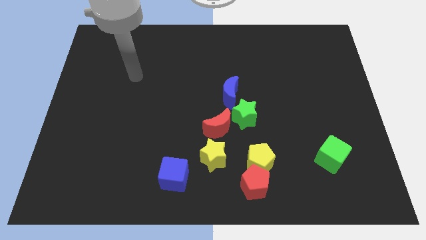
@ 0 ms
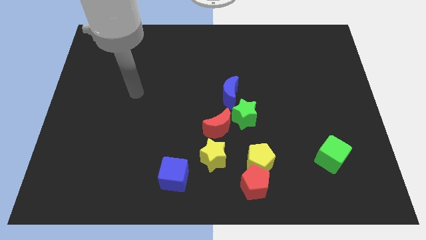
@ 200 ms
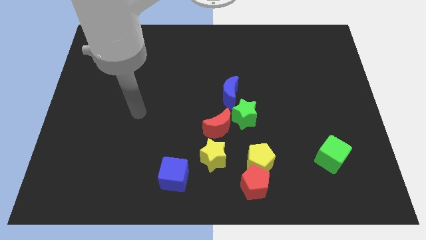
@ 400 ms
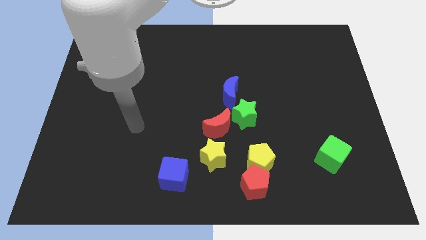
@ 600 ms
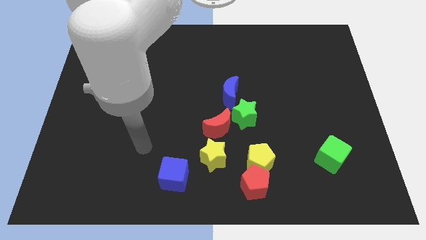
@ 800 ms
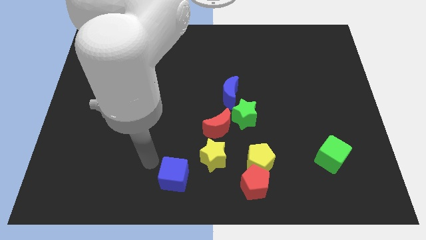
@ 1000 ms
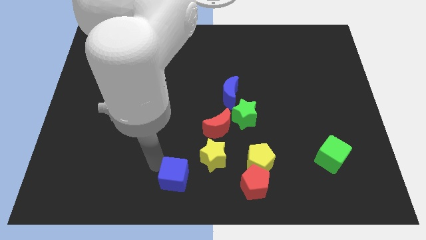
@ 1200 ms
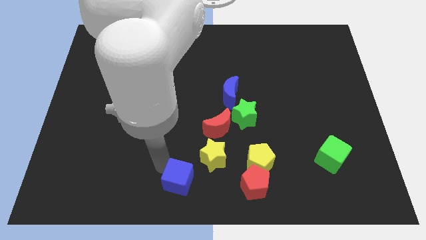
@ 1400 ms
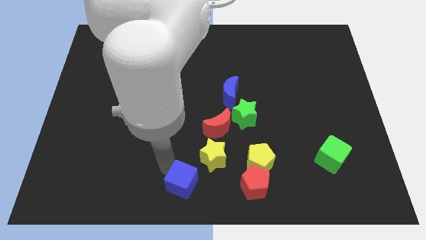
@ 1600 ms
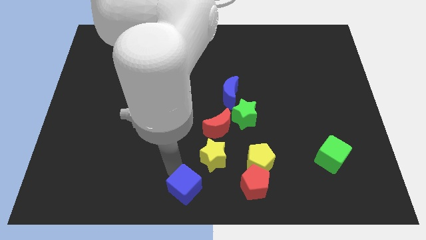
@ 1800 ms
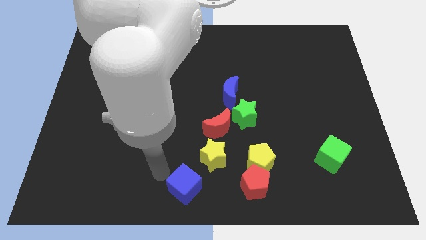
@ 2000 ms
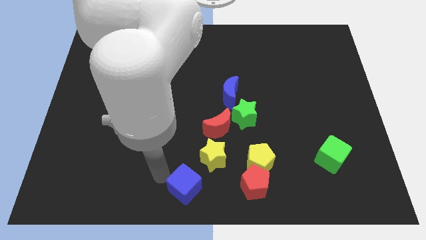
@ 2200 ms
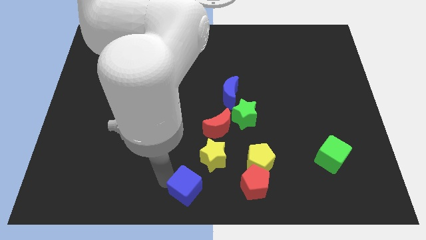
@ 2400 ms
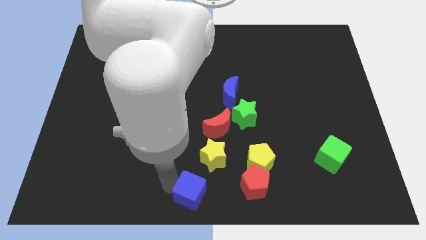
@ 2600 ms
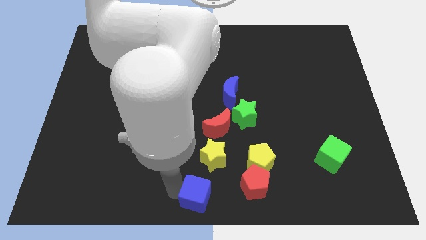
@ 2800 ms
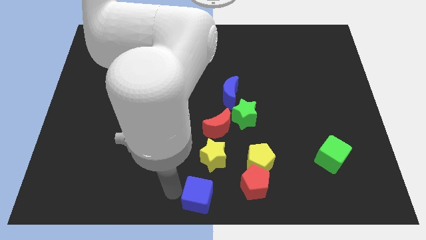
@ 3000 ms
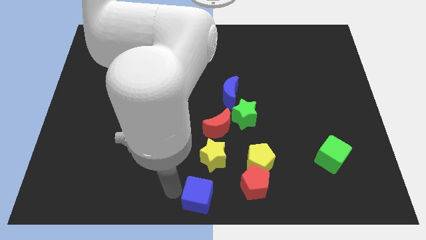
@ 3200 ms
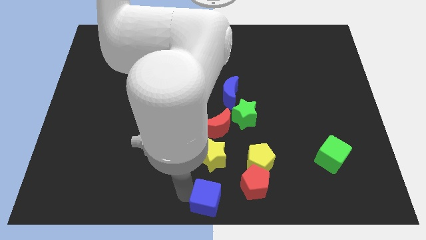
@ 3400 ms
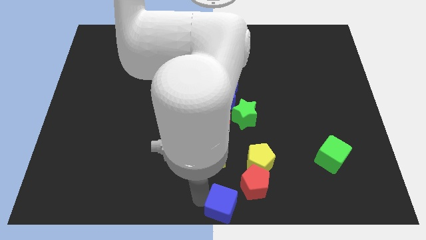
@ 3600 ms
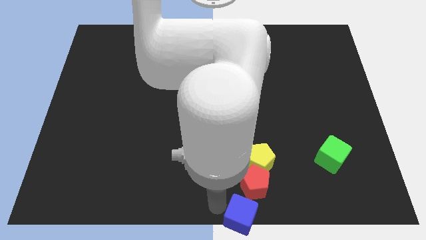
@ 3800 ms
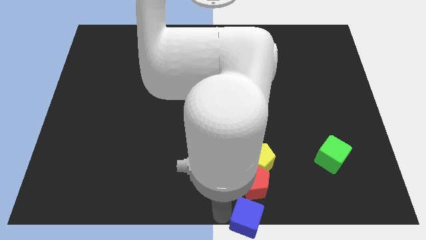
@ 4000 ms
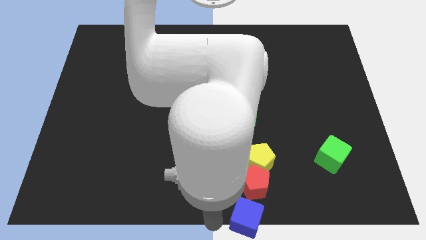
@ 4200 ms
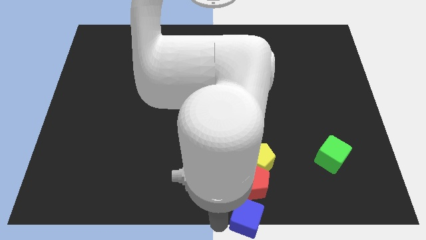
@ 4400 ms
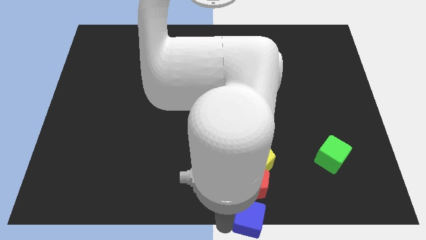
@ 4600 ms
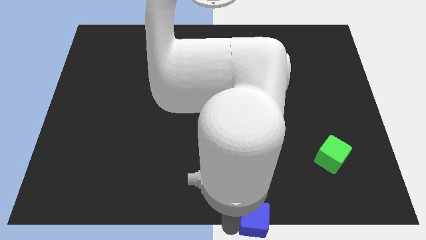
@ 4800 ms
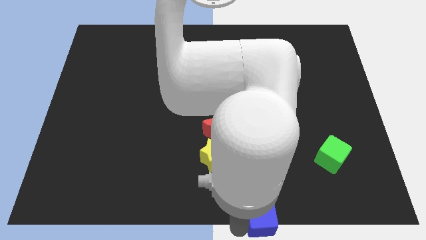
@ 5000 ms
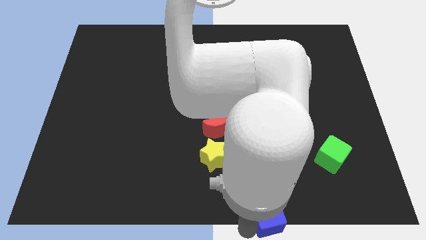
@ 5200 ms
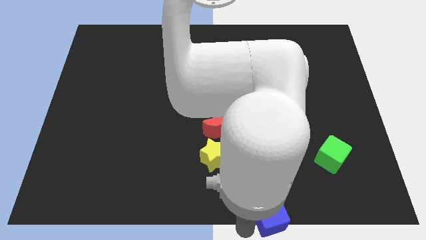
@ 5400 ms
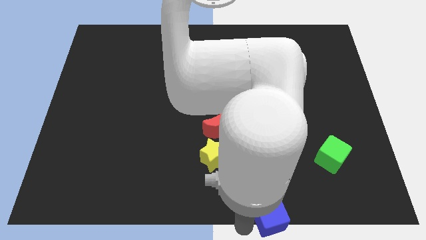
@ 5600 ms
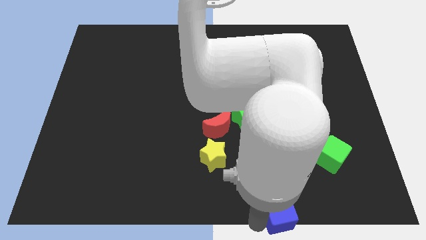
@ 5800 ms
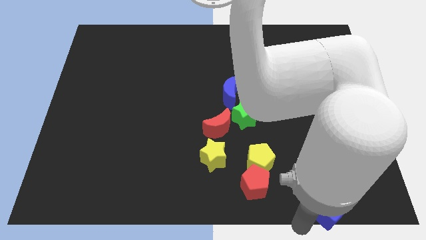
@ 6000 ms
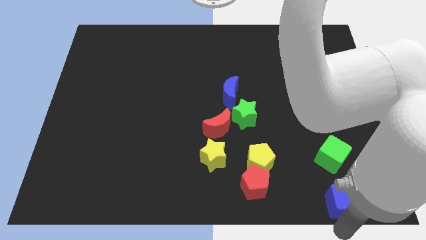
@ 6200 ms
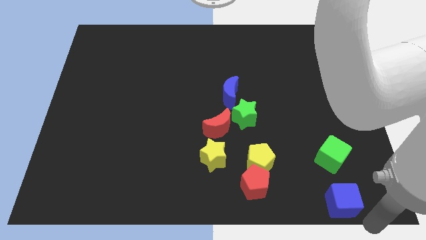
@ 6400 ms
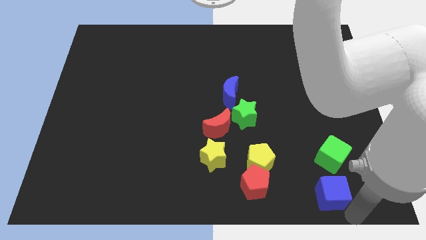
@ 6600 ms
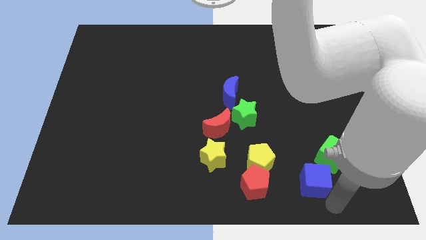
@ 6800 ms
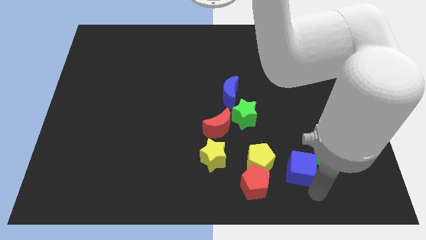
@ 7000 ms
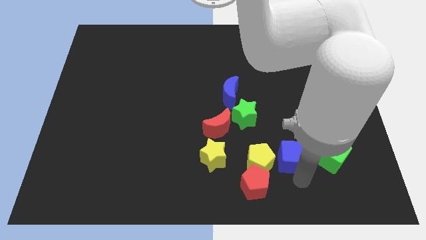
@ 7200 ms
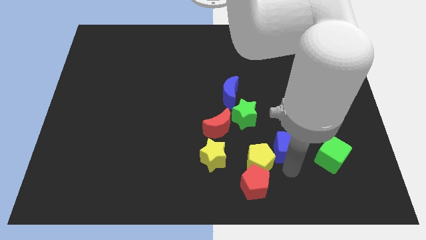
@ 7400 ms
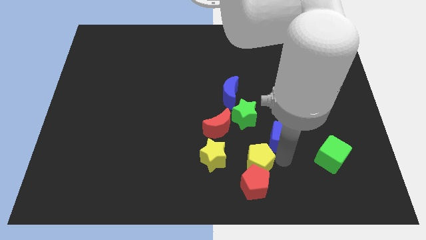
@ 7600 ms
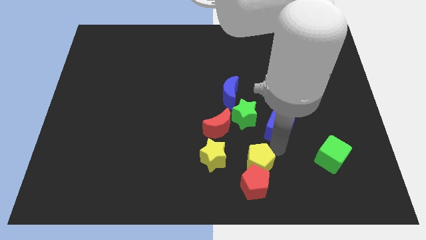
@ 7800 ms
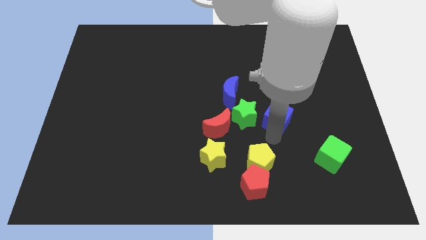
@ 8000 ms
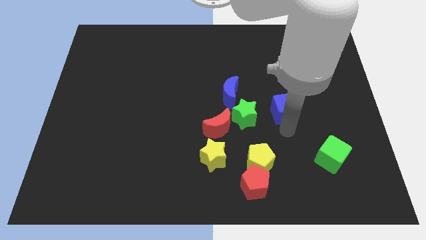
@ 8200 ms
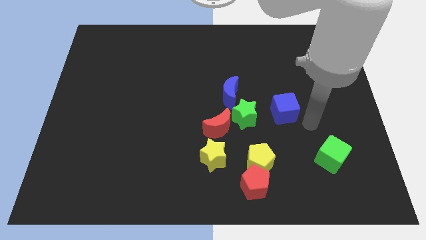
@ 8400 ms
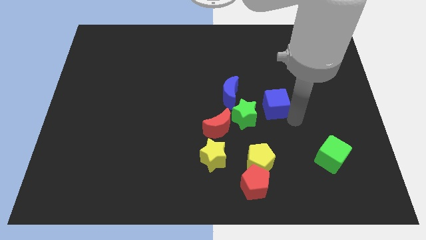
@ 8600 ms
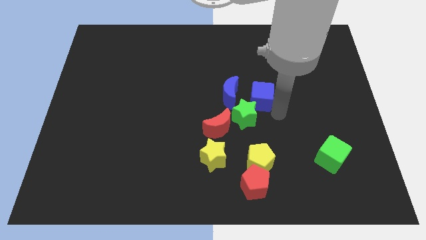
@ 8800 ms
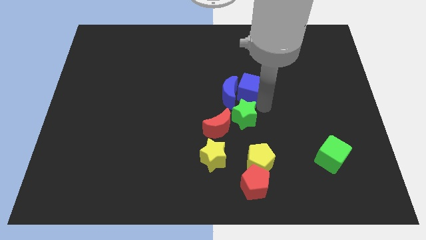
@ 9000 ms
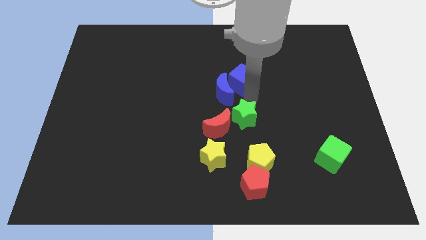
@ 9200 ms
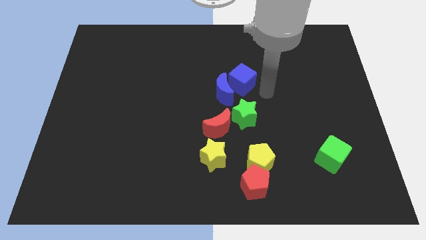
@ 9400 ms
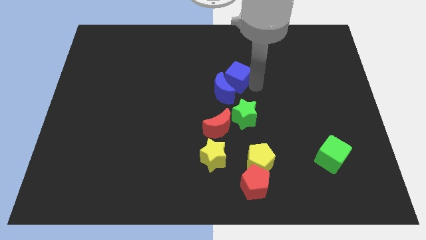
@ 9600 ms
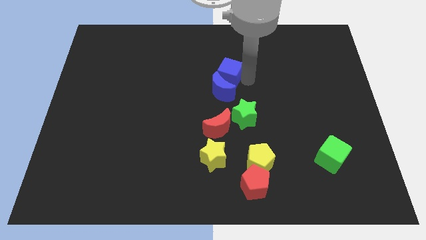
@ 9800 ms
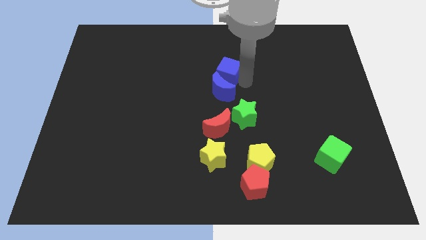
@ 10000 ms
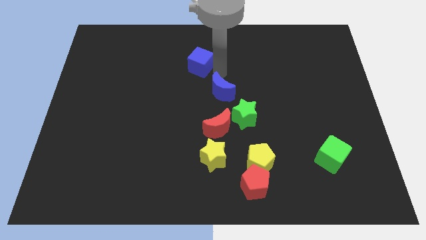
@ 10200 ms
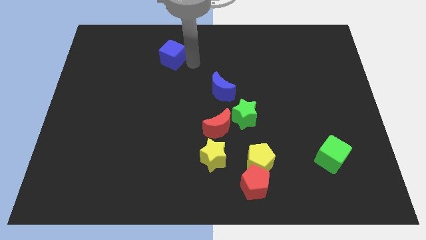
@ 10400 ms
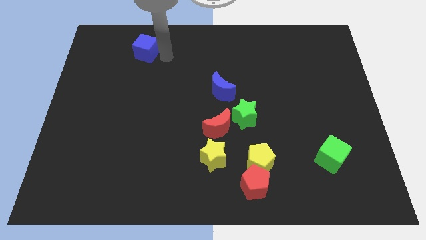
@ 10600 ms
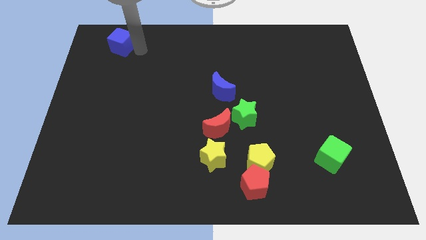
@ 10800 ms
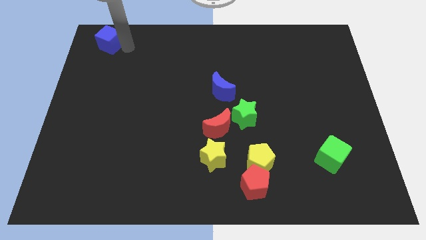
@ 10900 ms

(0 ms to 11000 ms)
put the blue cube to the top left corner

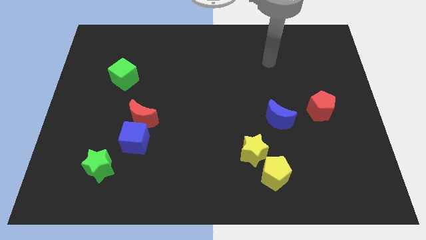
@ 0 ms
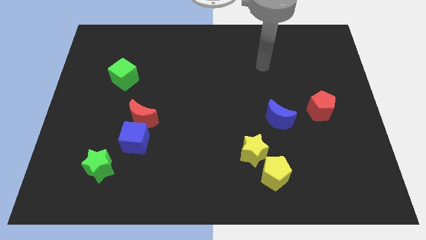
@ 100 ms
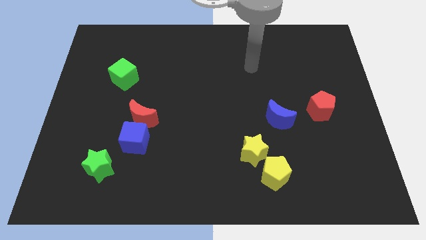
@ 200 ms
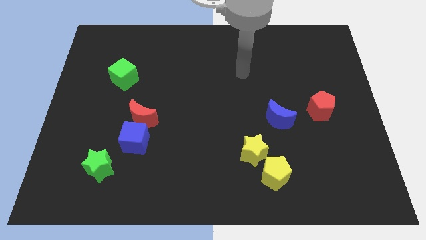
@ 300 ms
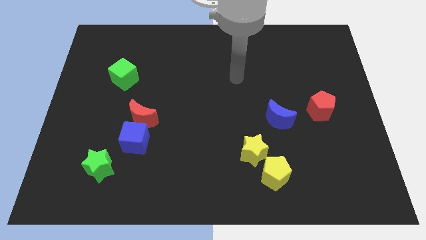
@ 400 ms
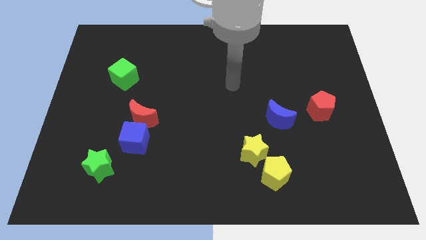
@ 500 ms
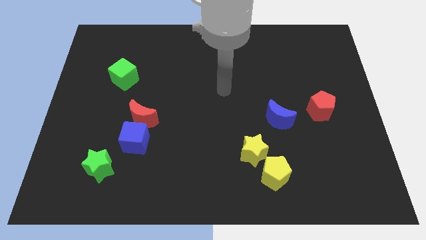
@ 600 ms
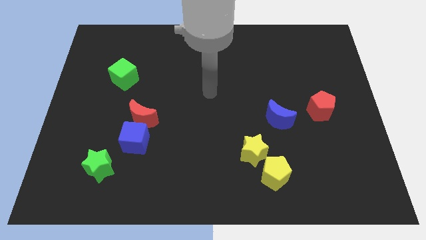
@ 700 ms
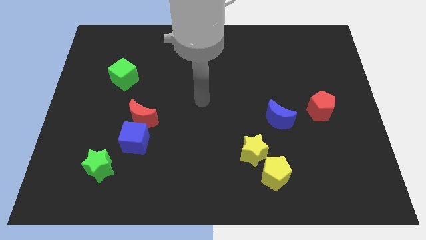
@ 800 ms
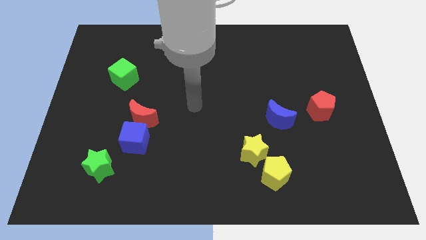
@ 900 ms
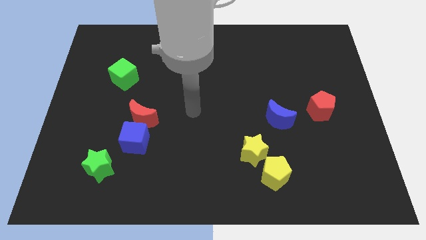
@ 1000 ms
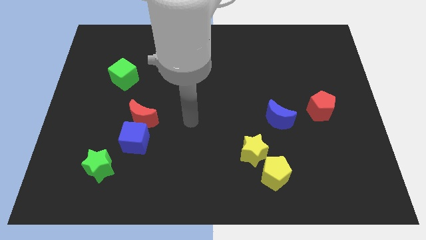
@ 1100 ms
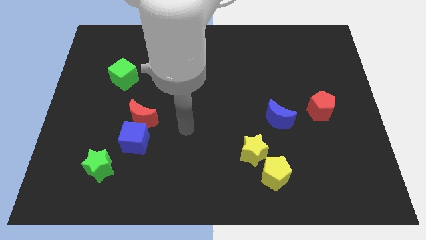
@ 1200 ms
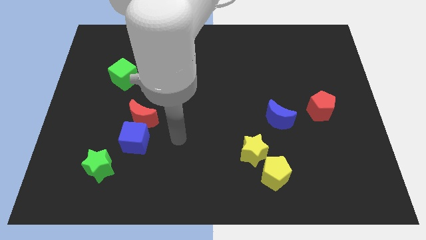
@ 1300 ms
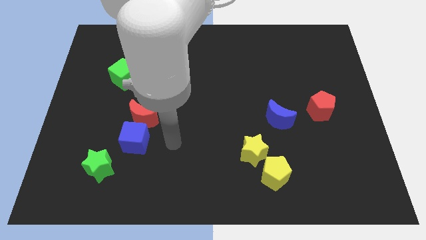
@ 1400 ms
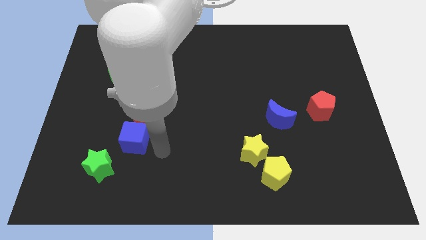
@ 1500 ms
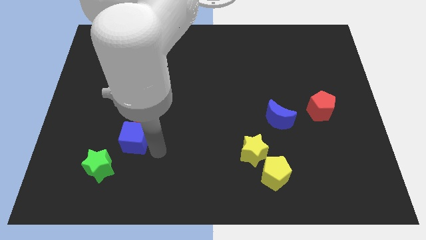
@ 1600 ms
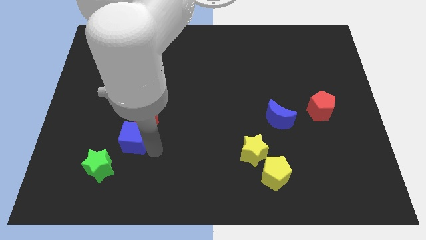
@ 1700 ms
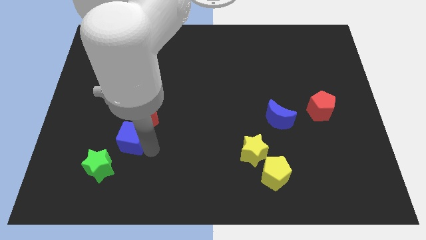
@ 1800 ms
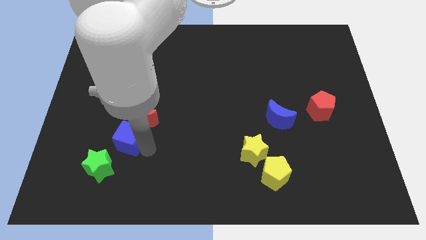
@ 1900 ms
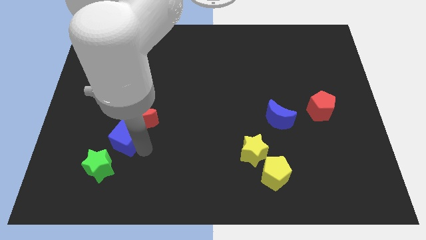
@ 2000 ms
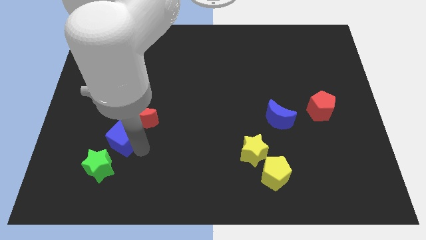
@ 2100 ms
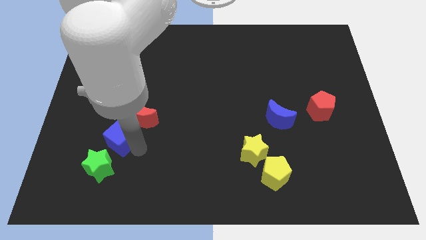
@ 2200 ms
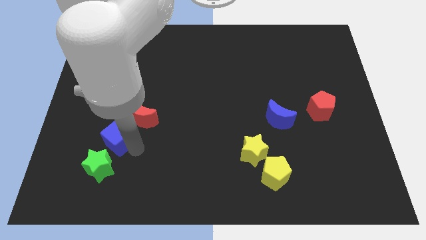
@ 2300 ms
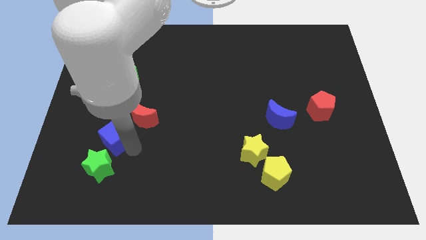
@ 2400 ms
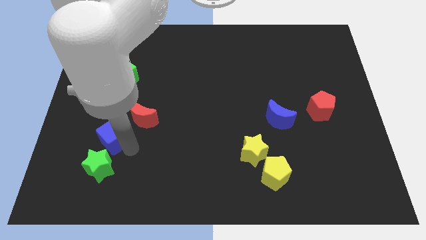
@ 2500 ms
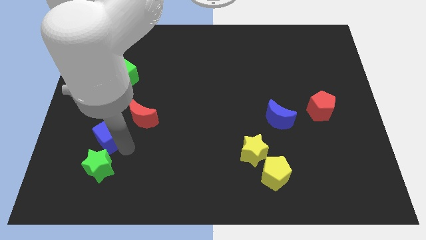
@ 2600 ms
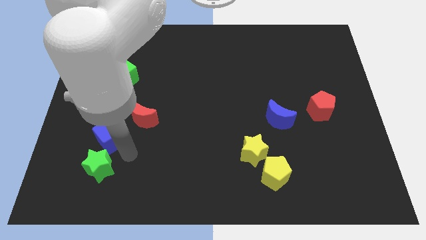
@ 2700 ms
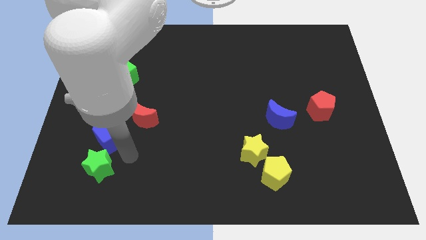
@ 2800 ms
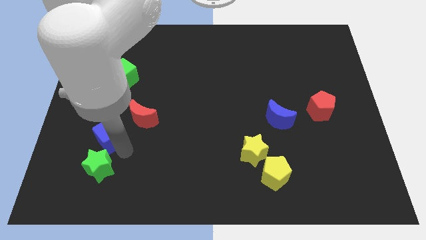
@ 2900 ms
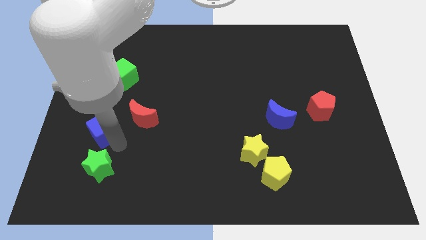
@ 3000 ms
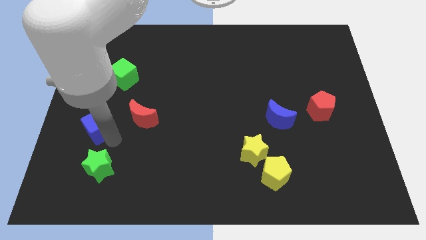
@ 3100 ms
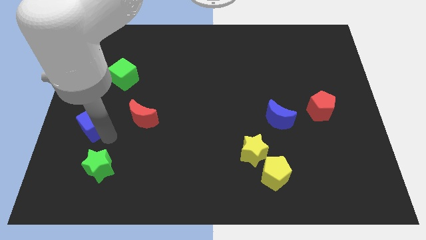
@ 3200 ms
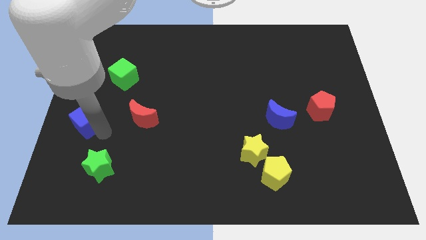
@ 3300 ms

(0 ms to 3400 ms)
push the blue cube to the center left
